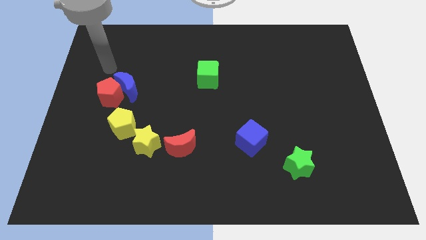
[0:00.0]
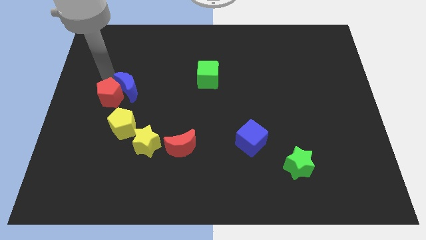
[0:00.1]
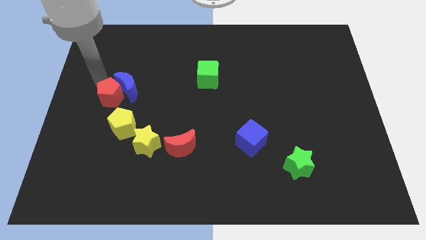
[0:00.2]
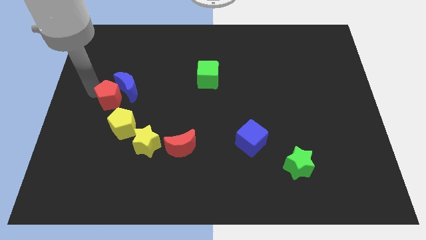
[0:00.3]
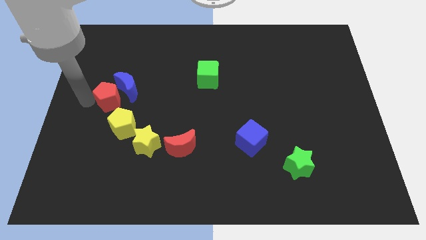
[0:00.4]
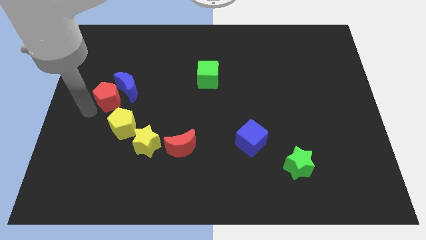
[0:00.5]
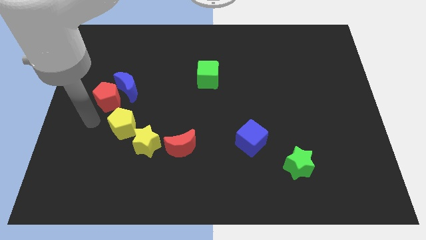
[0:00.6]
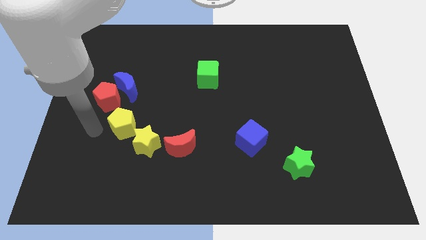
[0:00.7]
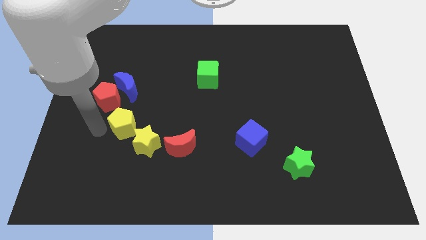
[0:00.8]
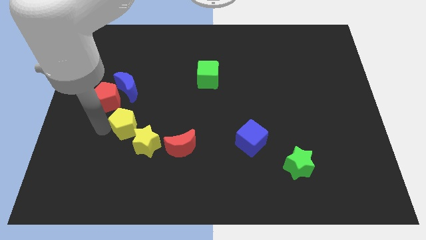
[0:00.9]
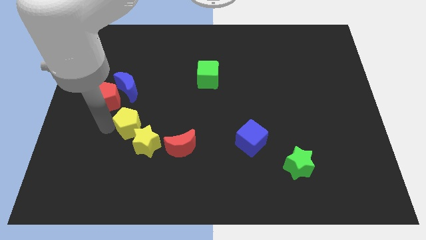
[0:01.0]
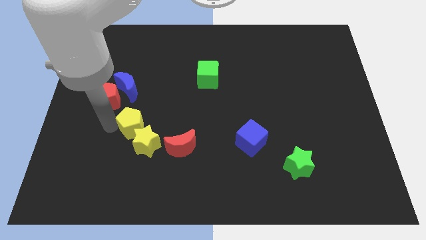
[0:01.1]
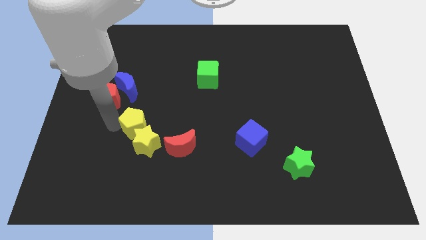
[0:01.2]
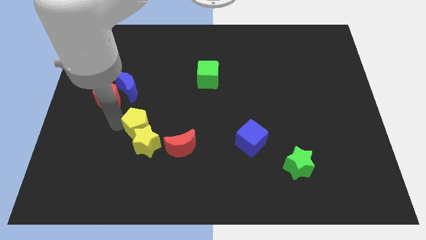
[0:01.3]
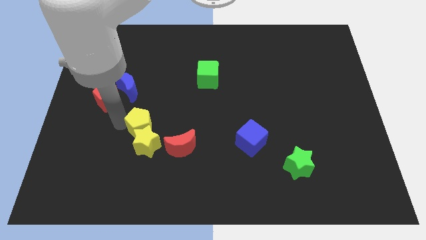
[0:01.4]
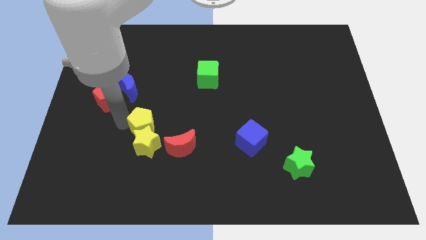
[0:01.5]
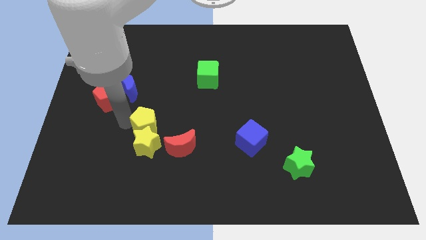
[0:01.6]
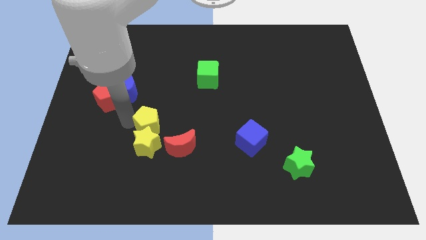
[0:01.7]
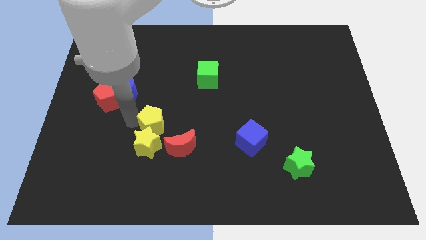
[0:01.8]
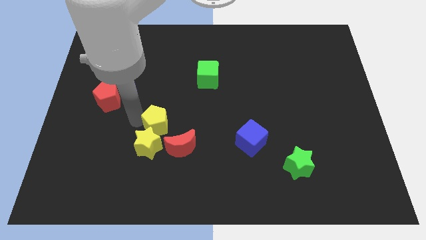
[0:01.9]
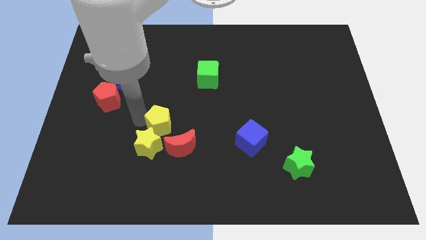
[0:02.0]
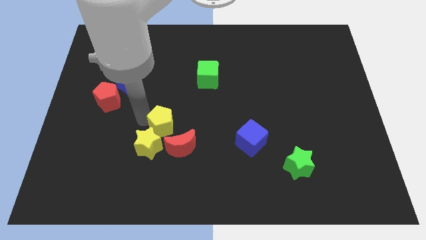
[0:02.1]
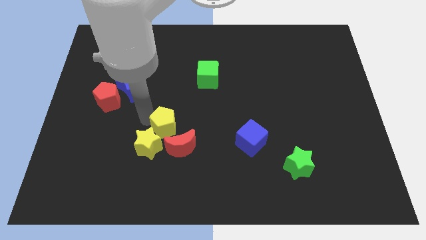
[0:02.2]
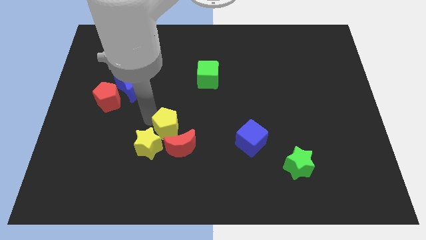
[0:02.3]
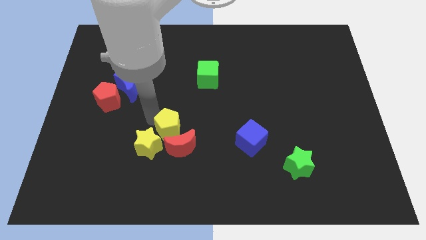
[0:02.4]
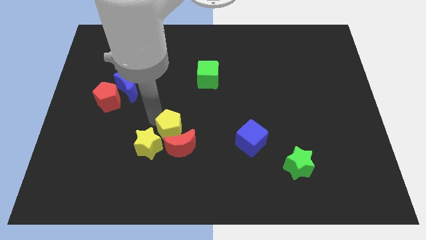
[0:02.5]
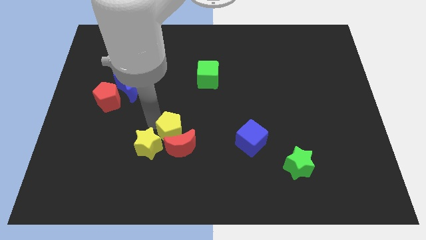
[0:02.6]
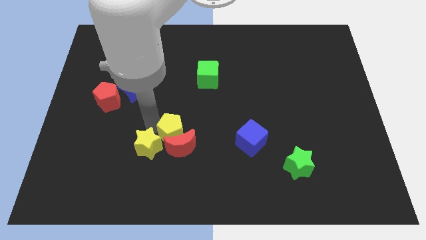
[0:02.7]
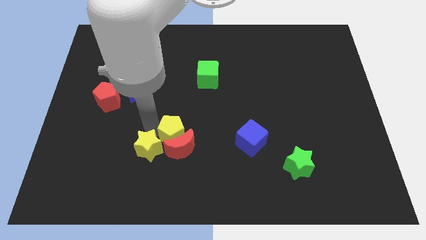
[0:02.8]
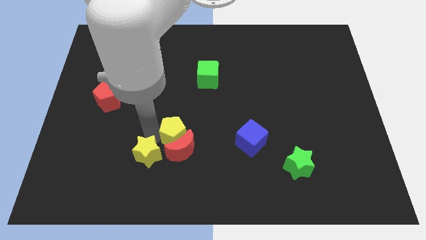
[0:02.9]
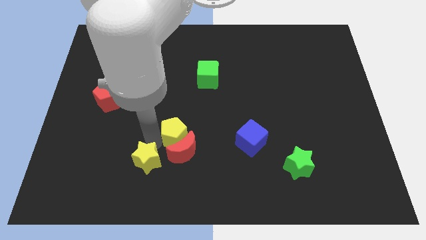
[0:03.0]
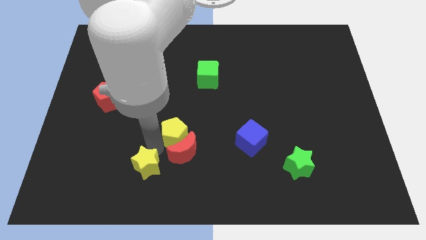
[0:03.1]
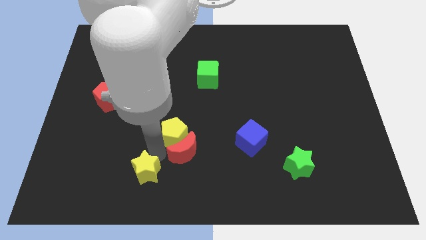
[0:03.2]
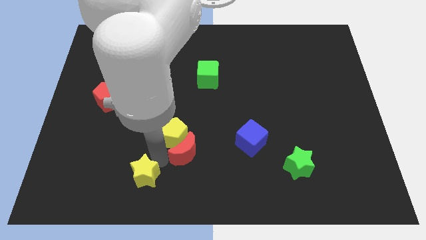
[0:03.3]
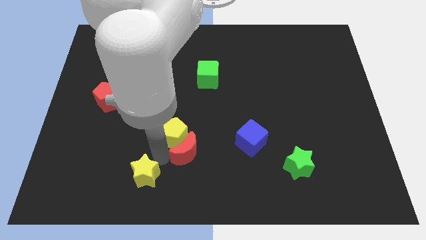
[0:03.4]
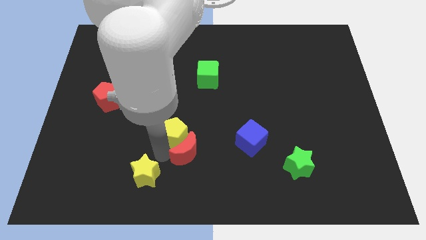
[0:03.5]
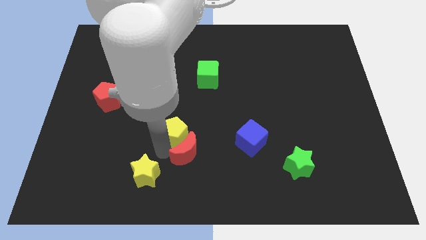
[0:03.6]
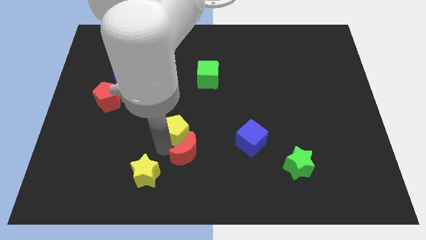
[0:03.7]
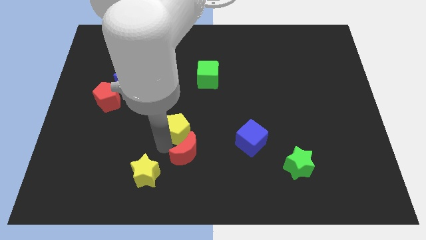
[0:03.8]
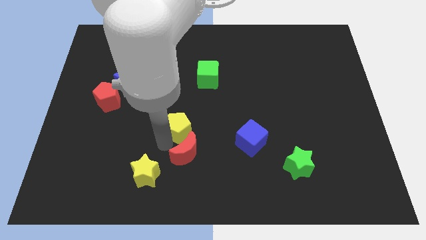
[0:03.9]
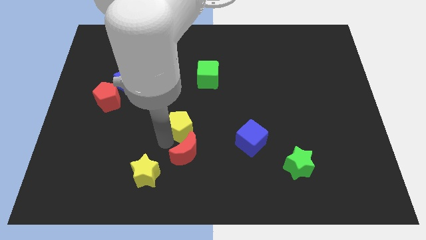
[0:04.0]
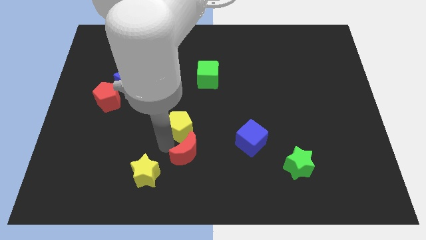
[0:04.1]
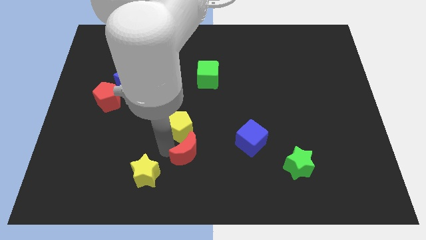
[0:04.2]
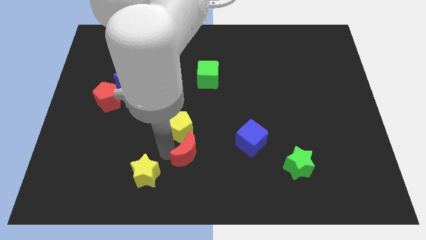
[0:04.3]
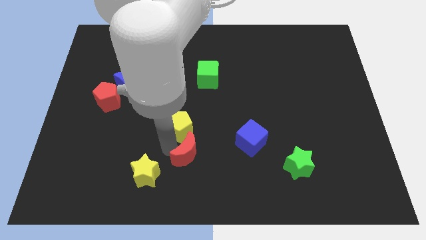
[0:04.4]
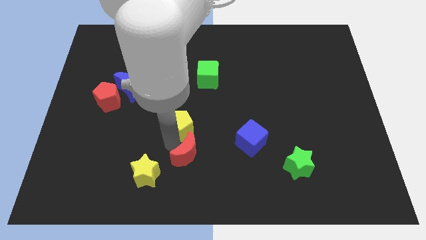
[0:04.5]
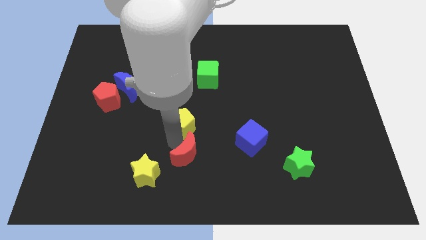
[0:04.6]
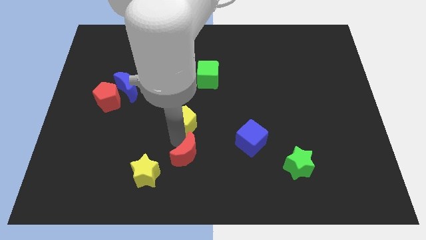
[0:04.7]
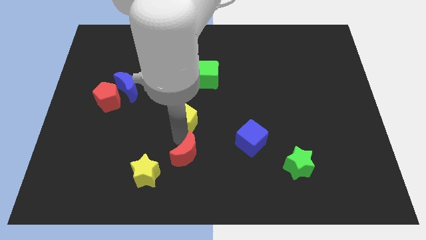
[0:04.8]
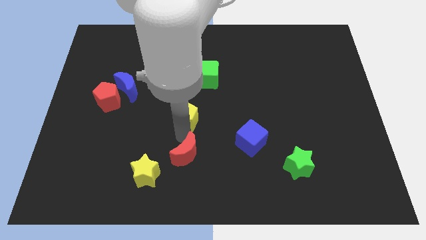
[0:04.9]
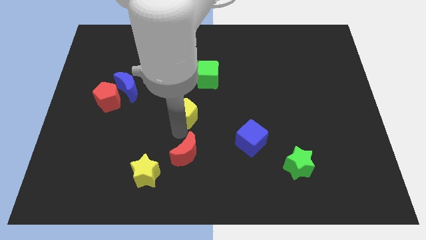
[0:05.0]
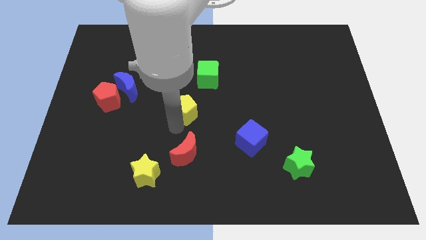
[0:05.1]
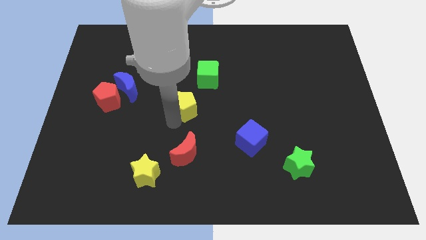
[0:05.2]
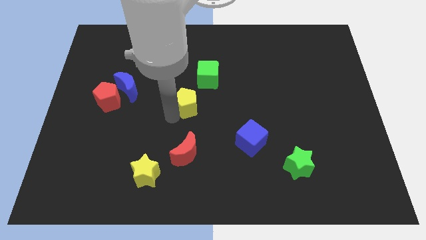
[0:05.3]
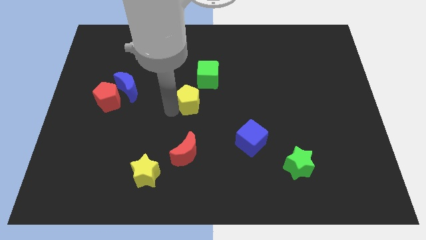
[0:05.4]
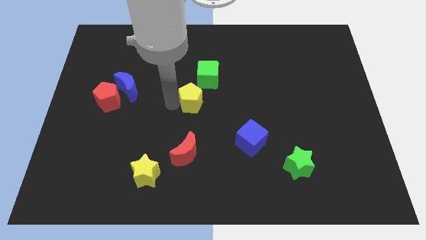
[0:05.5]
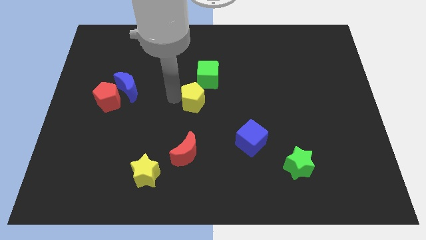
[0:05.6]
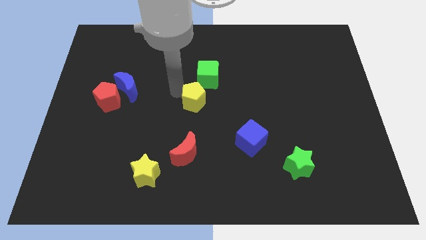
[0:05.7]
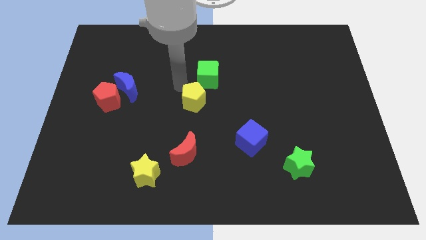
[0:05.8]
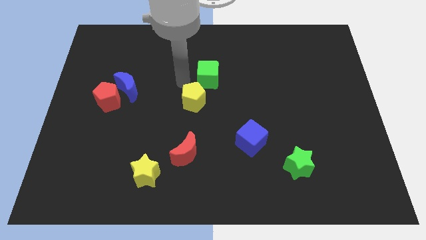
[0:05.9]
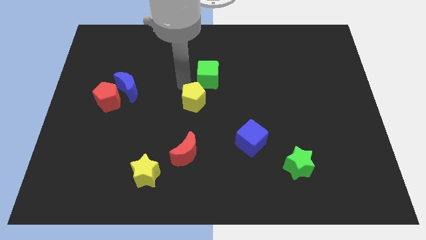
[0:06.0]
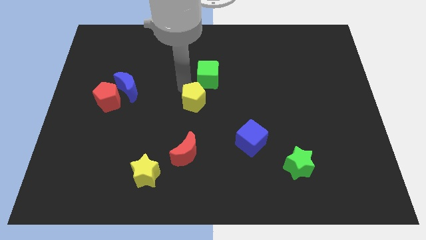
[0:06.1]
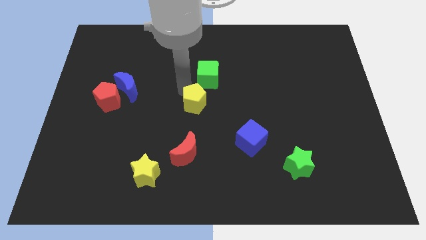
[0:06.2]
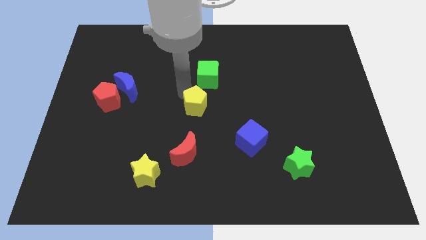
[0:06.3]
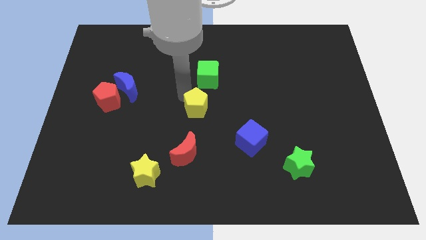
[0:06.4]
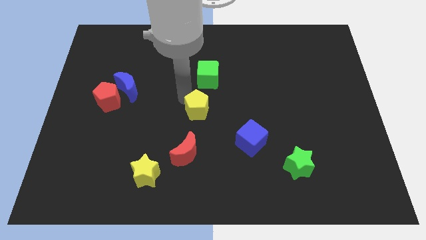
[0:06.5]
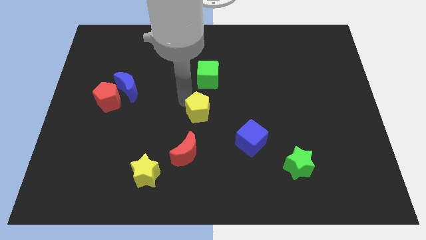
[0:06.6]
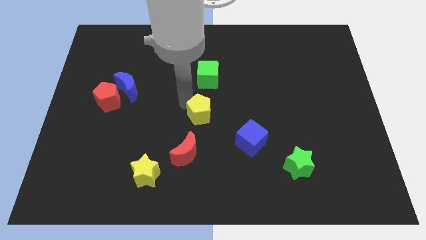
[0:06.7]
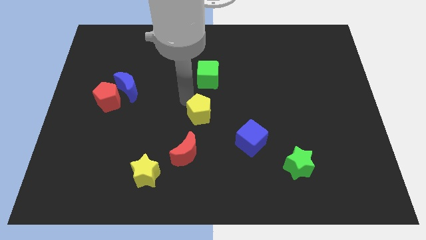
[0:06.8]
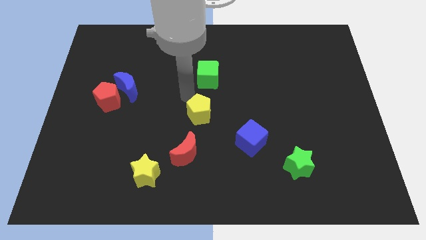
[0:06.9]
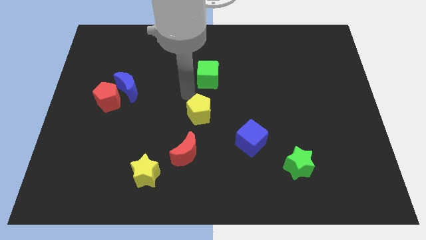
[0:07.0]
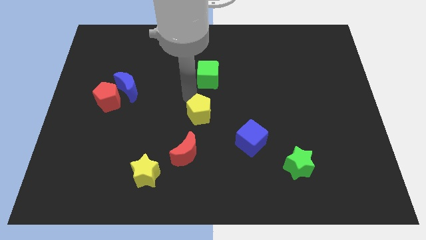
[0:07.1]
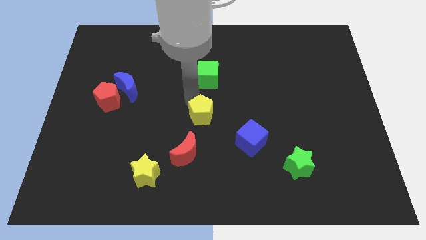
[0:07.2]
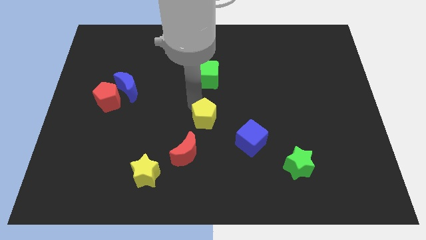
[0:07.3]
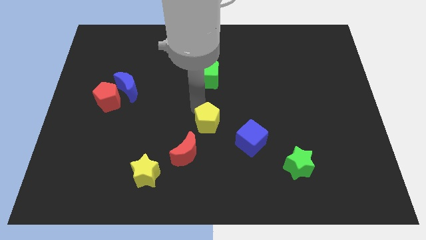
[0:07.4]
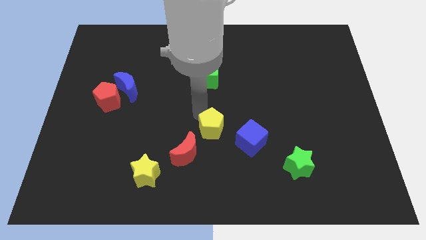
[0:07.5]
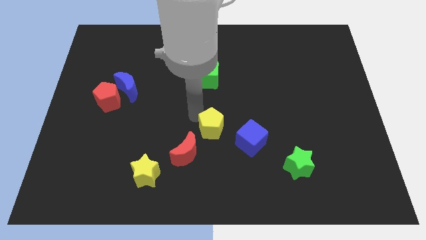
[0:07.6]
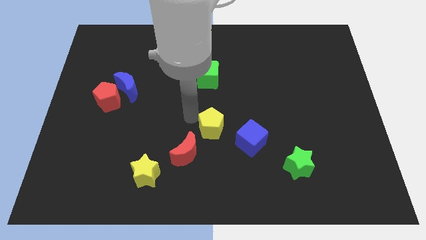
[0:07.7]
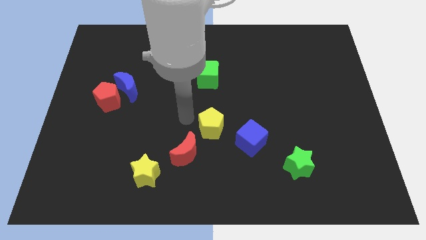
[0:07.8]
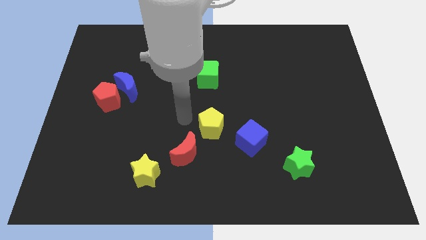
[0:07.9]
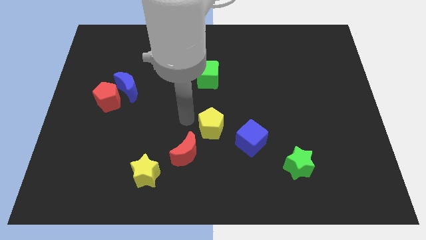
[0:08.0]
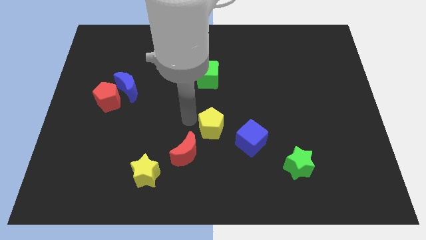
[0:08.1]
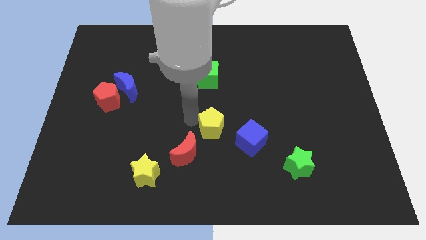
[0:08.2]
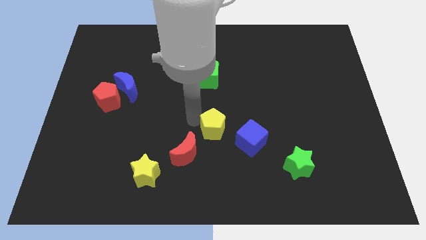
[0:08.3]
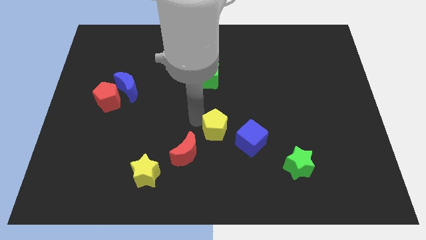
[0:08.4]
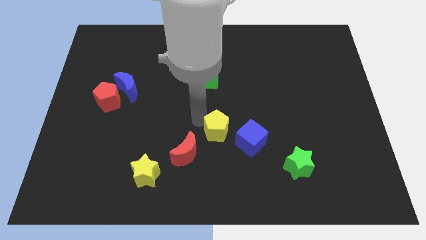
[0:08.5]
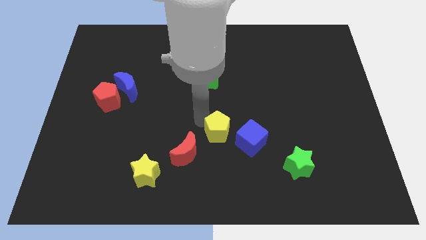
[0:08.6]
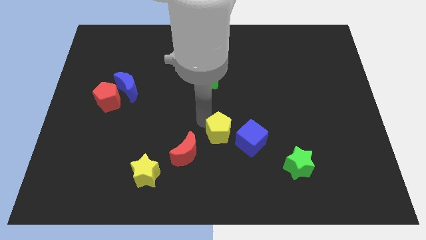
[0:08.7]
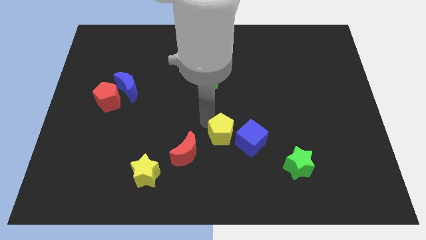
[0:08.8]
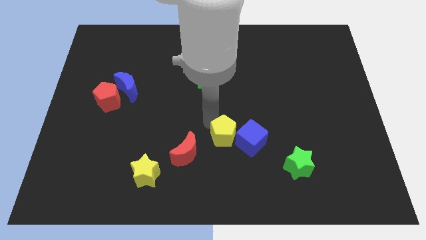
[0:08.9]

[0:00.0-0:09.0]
put the yellow pentagon next to the blue cube
